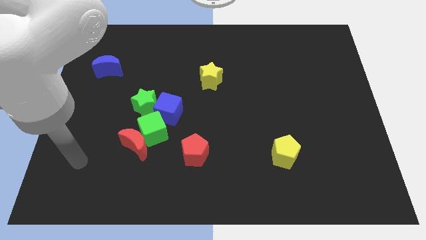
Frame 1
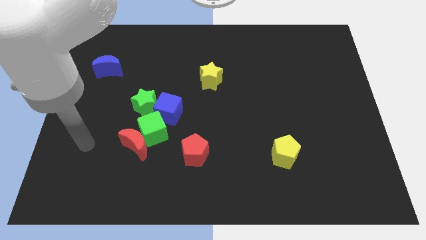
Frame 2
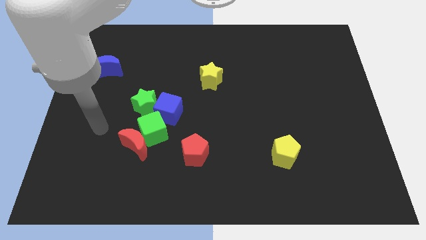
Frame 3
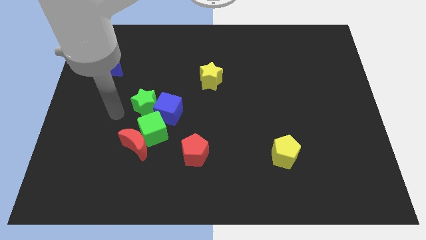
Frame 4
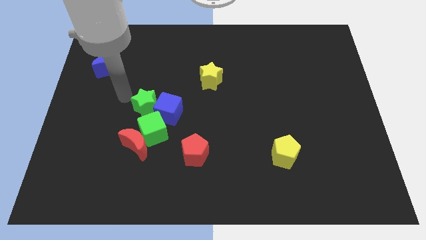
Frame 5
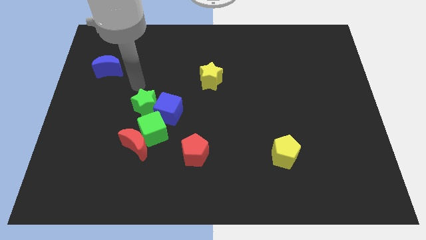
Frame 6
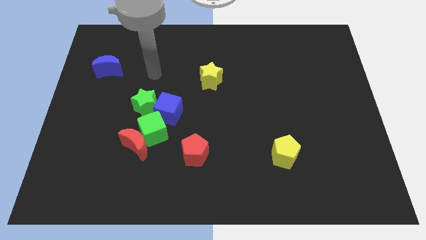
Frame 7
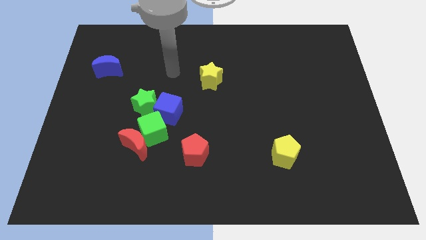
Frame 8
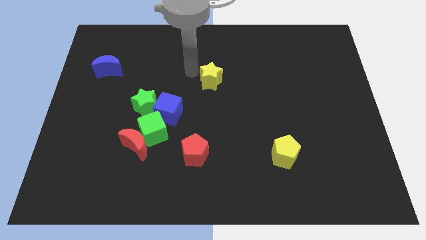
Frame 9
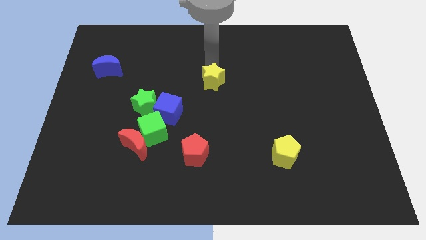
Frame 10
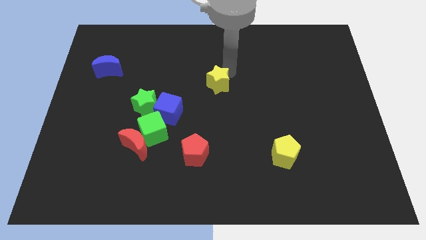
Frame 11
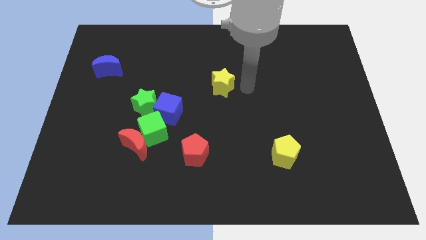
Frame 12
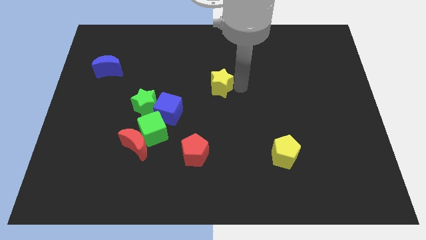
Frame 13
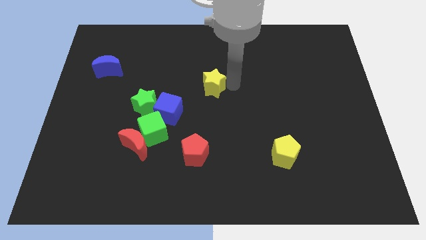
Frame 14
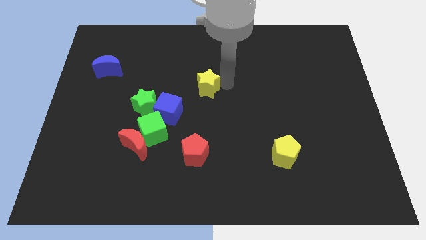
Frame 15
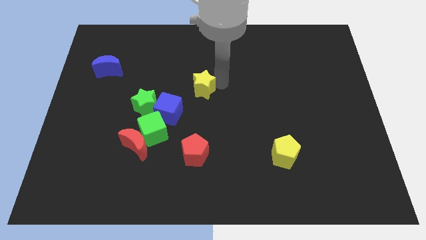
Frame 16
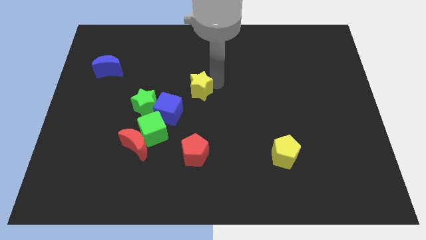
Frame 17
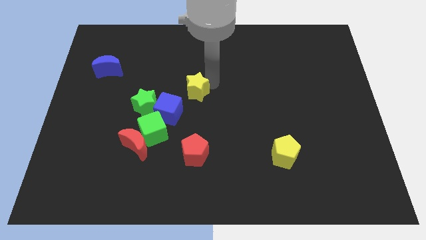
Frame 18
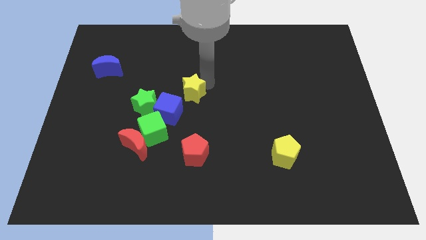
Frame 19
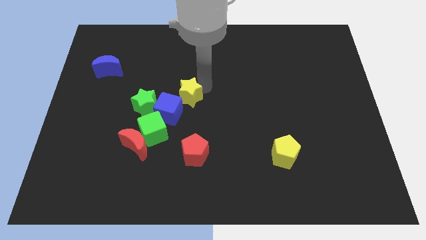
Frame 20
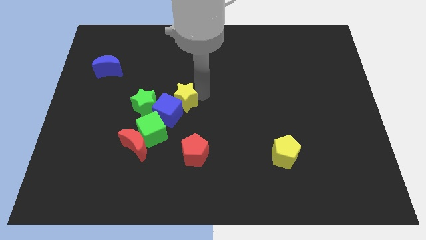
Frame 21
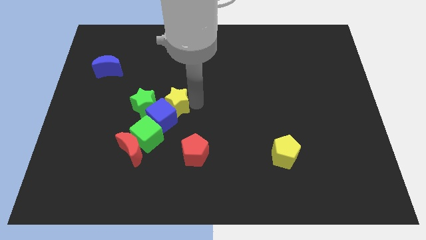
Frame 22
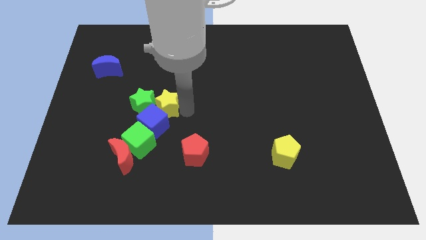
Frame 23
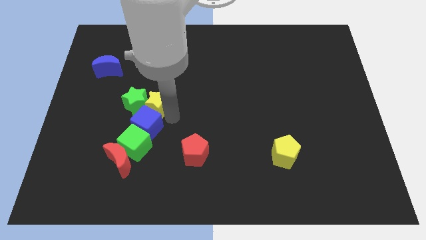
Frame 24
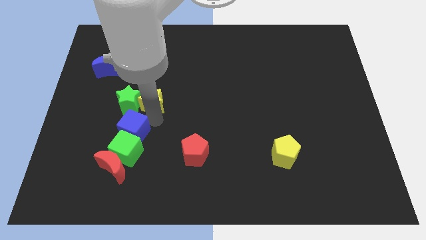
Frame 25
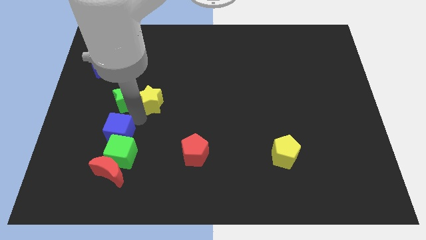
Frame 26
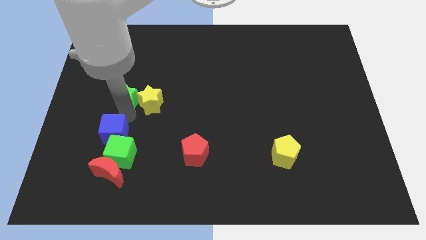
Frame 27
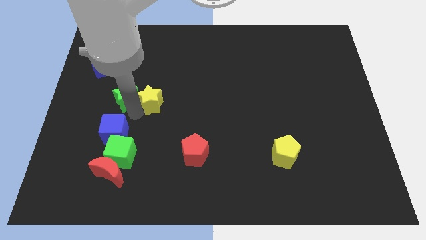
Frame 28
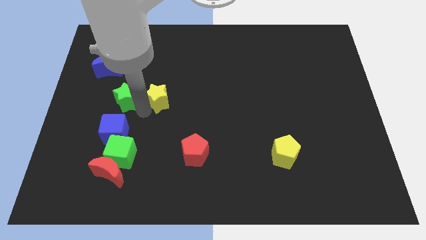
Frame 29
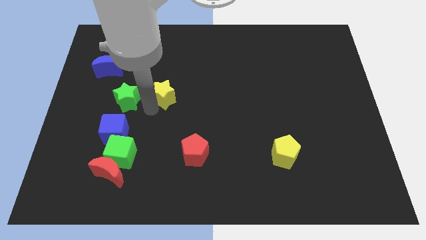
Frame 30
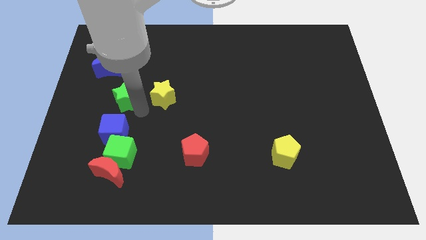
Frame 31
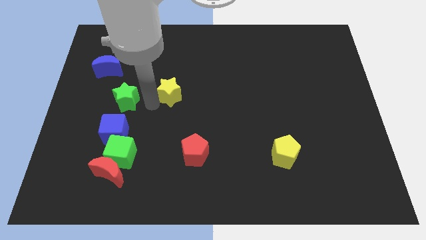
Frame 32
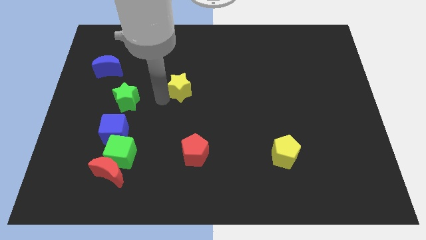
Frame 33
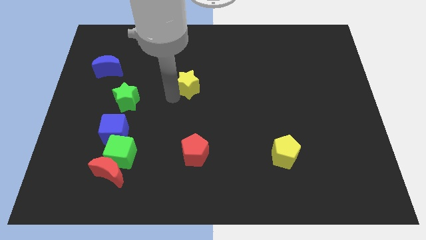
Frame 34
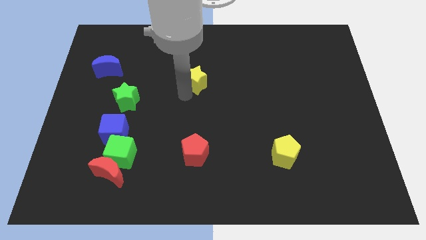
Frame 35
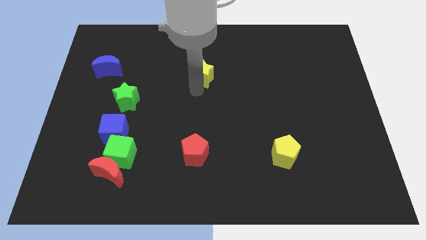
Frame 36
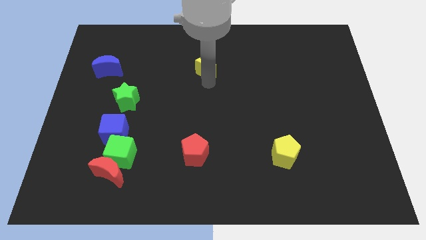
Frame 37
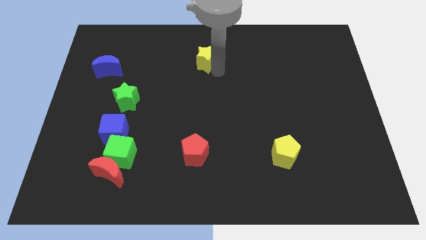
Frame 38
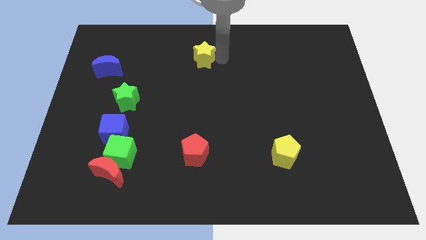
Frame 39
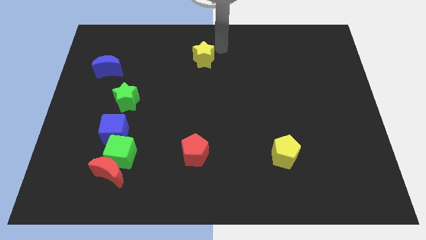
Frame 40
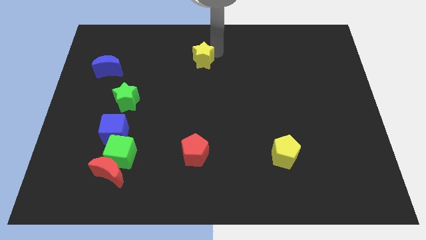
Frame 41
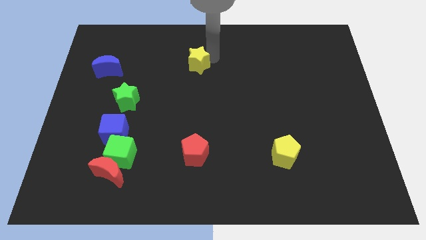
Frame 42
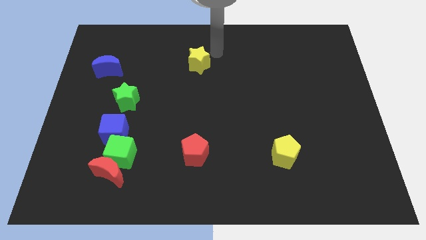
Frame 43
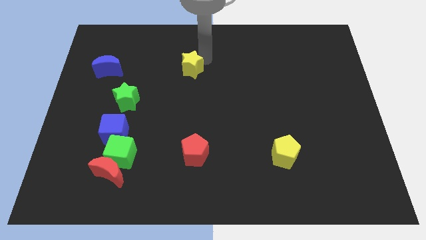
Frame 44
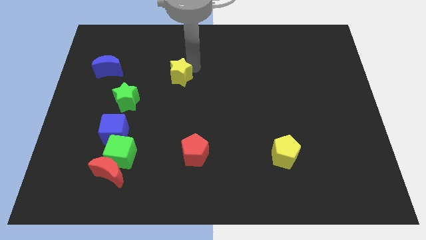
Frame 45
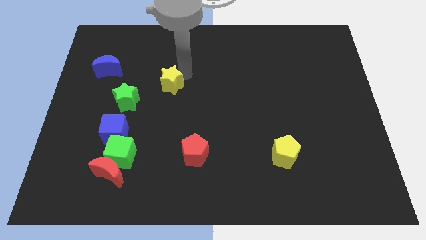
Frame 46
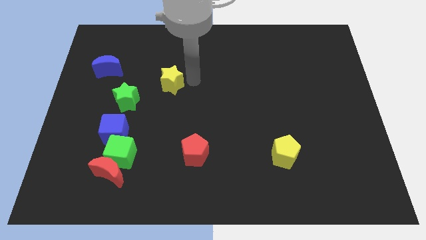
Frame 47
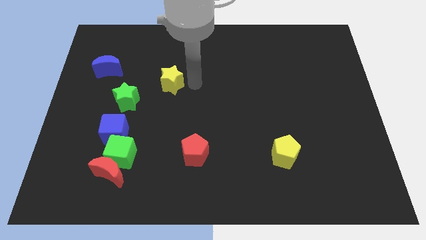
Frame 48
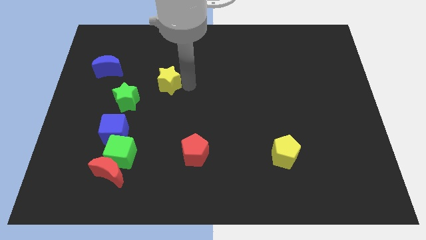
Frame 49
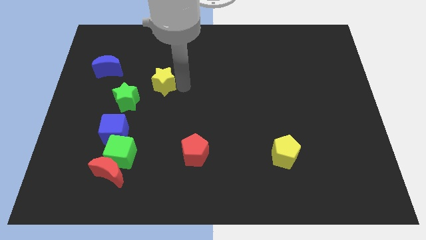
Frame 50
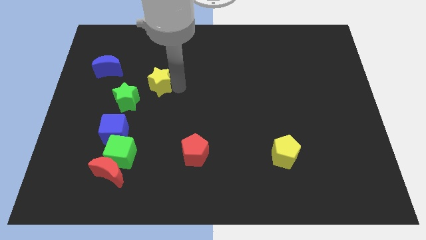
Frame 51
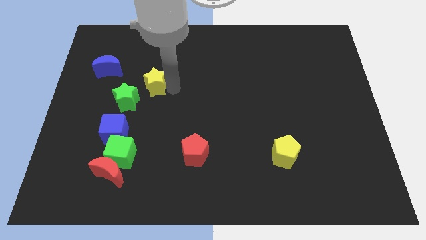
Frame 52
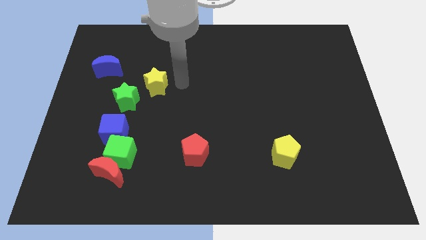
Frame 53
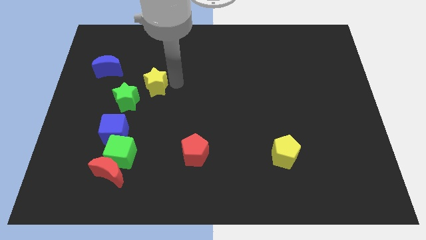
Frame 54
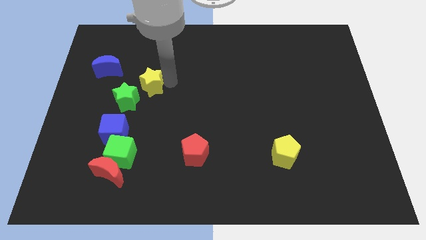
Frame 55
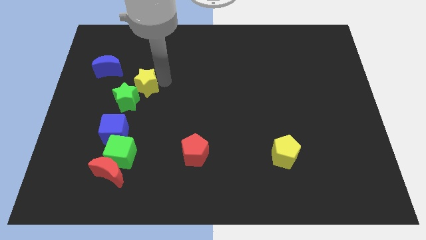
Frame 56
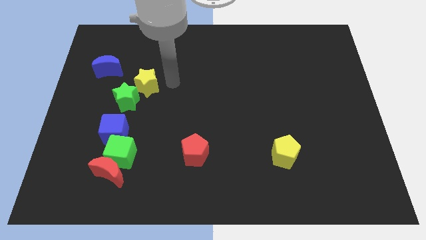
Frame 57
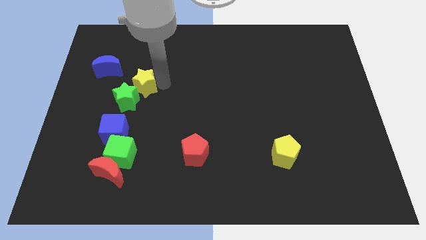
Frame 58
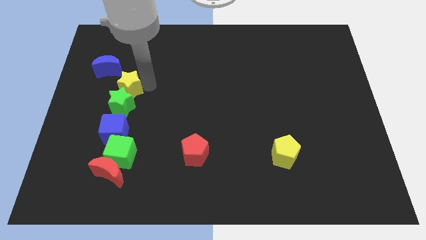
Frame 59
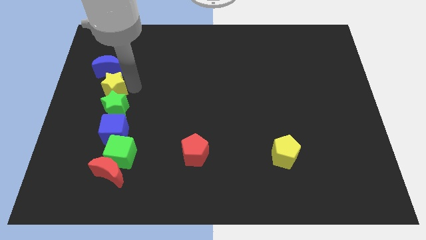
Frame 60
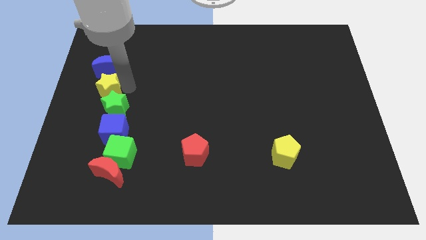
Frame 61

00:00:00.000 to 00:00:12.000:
move the yellow star to the left side of the board
